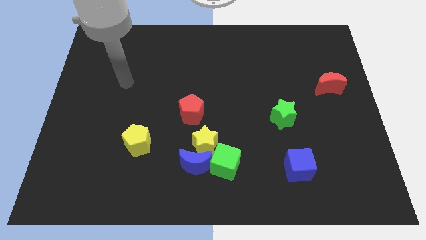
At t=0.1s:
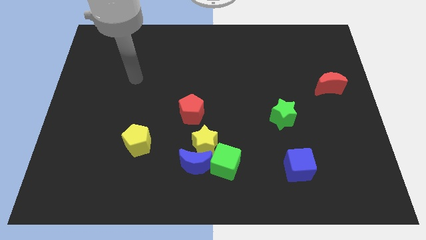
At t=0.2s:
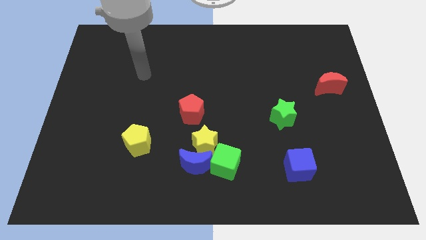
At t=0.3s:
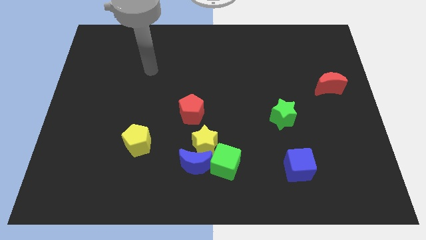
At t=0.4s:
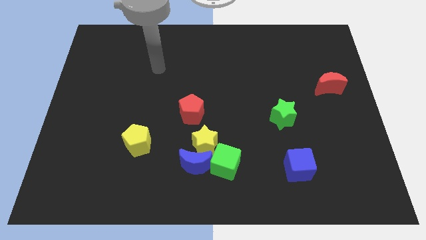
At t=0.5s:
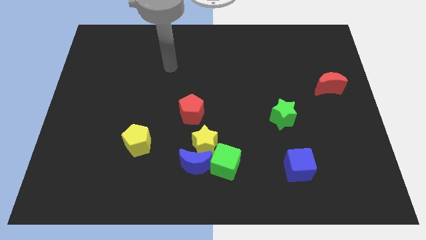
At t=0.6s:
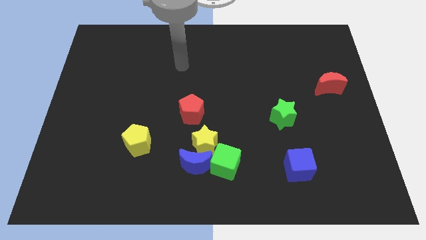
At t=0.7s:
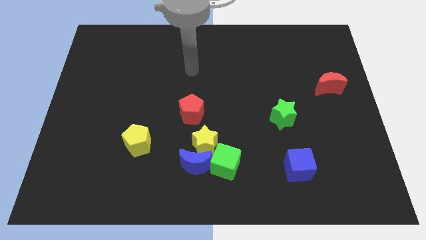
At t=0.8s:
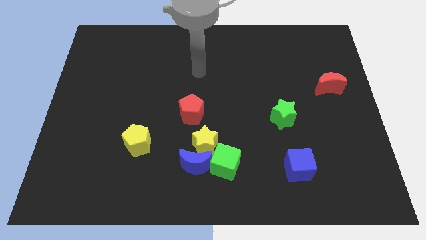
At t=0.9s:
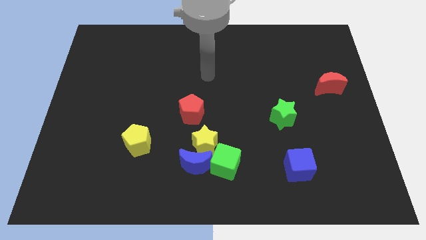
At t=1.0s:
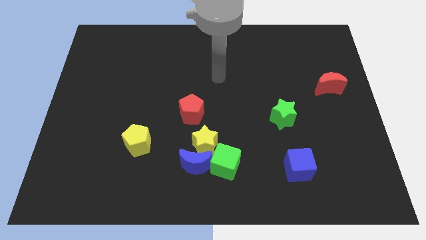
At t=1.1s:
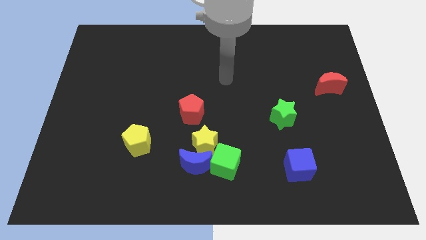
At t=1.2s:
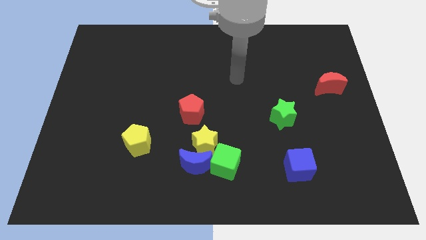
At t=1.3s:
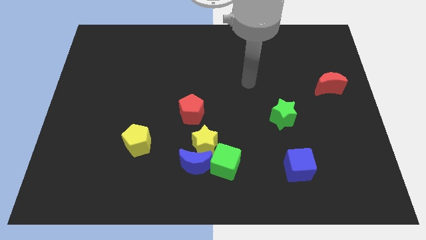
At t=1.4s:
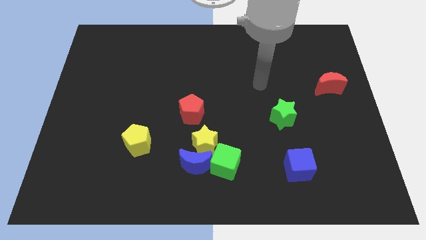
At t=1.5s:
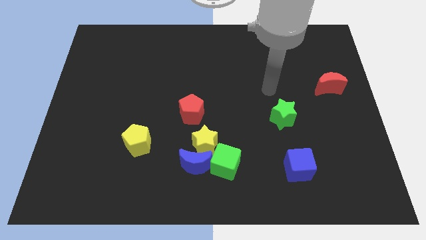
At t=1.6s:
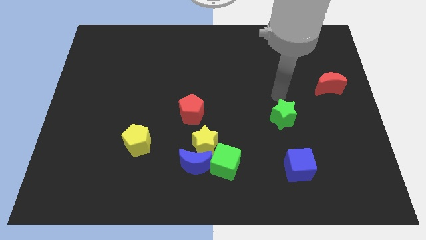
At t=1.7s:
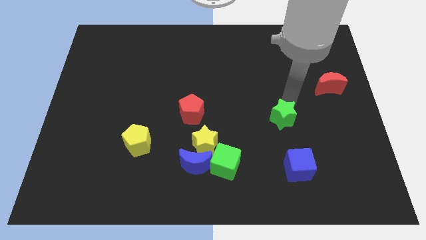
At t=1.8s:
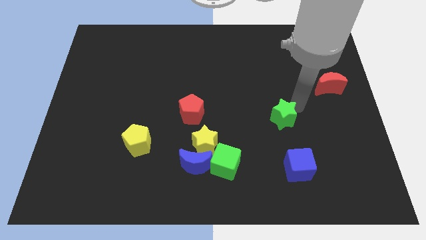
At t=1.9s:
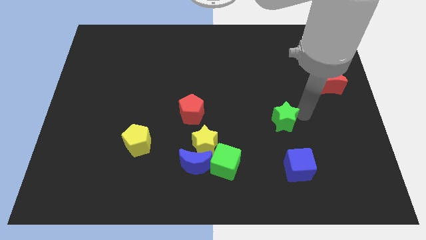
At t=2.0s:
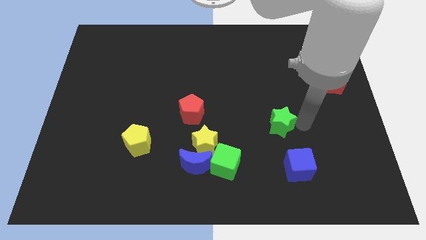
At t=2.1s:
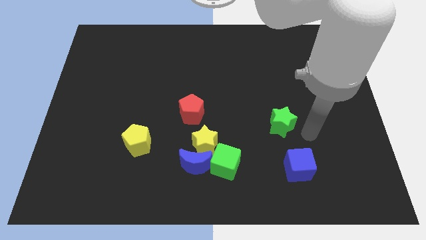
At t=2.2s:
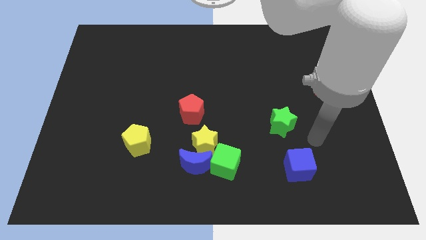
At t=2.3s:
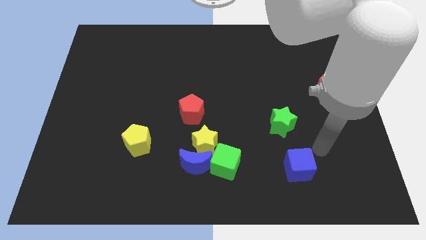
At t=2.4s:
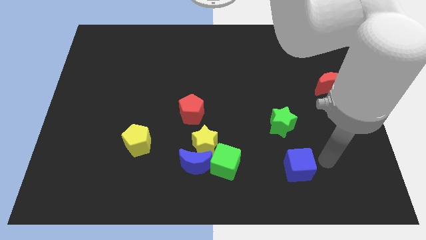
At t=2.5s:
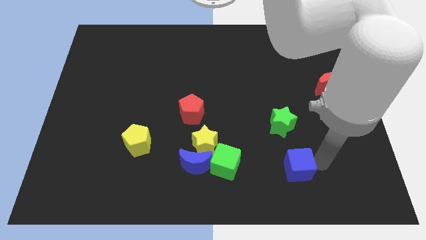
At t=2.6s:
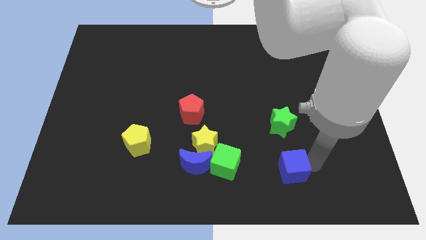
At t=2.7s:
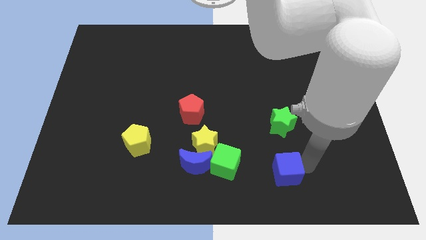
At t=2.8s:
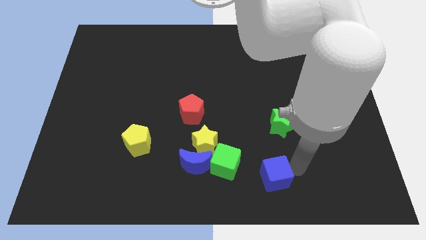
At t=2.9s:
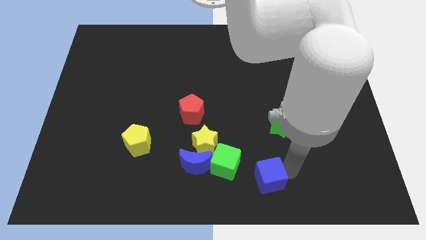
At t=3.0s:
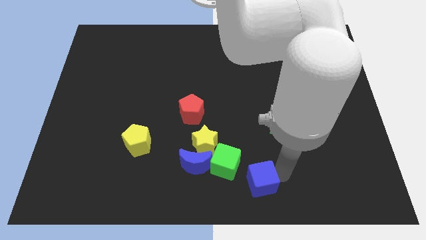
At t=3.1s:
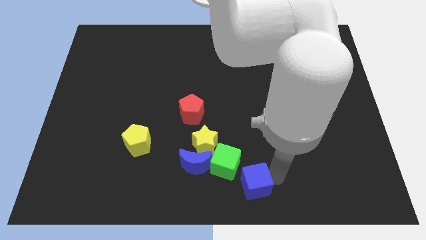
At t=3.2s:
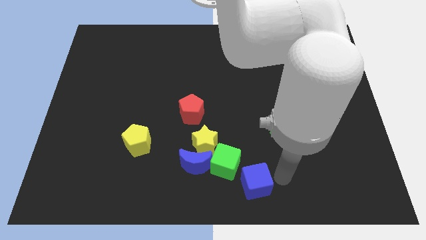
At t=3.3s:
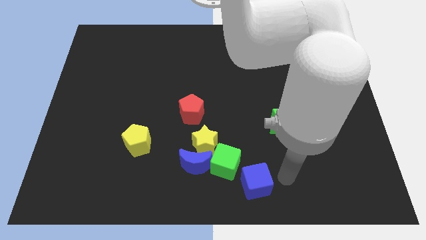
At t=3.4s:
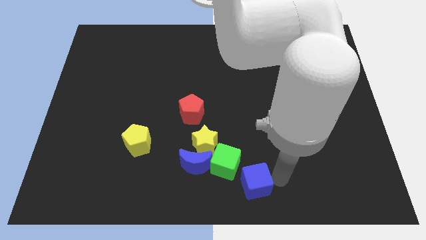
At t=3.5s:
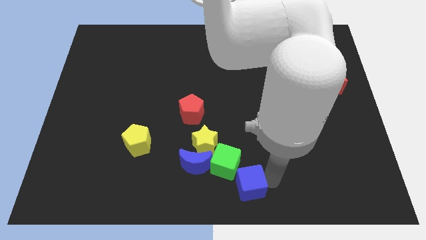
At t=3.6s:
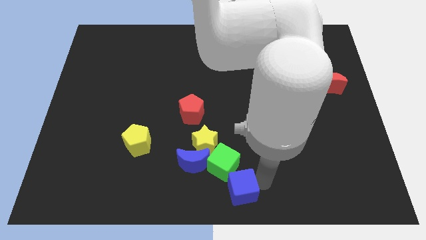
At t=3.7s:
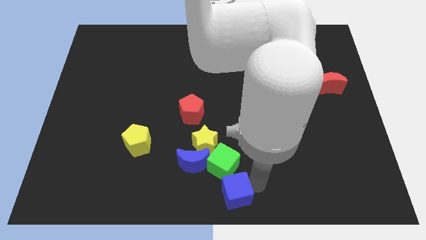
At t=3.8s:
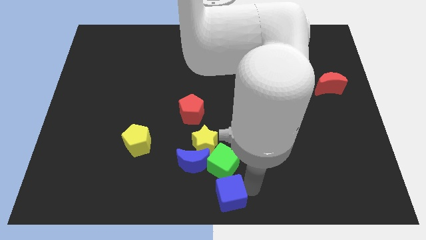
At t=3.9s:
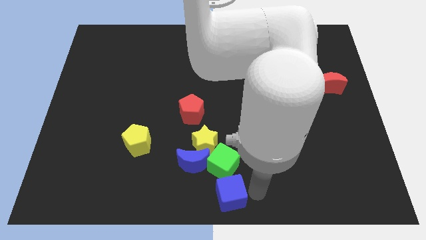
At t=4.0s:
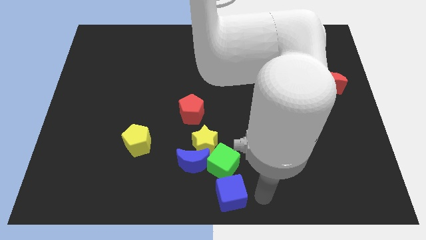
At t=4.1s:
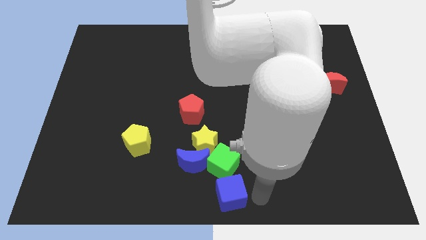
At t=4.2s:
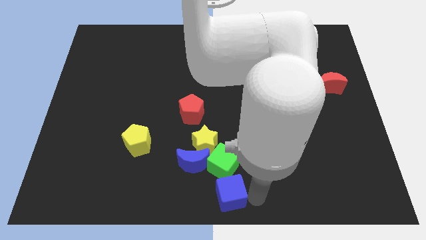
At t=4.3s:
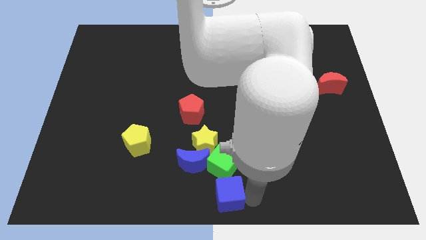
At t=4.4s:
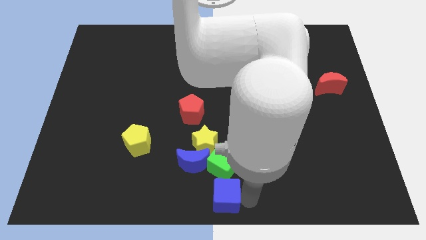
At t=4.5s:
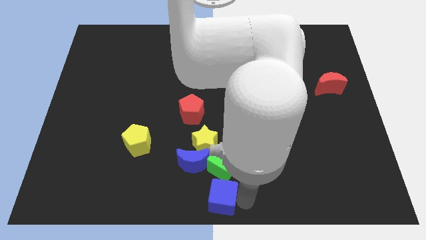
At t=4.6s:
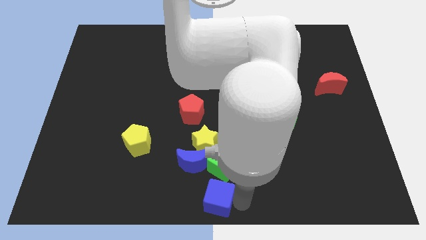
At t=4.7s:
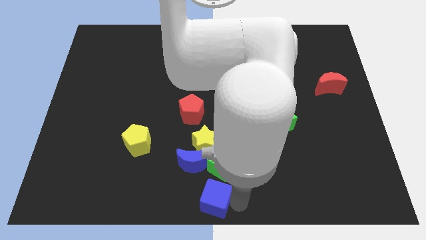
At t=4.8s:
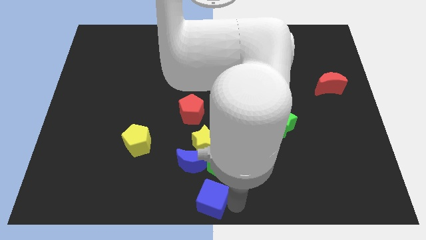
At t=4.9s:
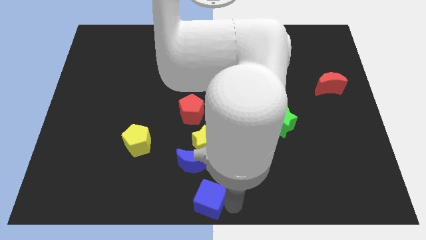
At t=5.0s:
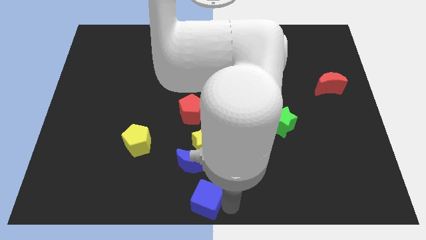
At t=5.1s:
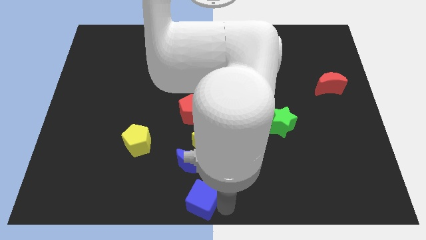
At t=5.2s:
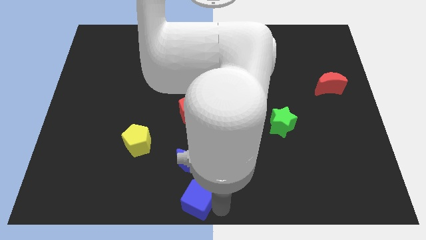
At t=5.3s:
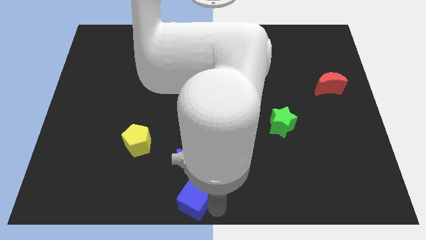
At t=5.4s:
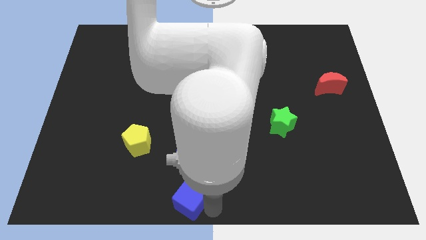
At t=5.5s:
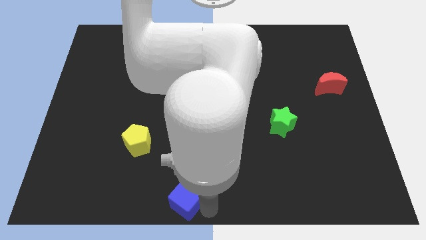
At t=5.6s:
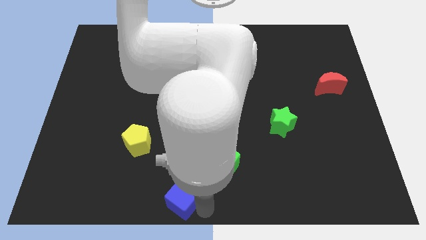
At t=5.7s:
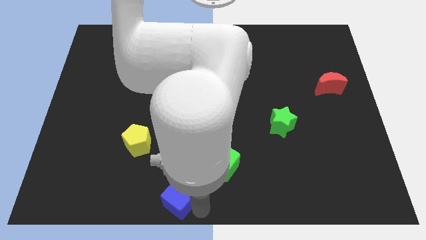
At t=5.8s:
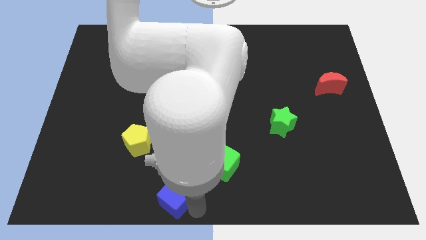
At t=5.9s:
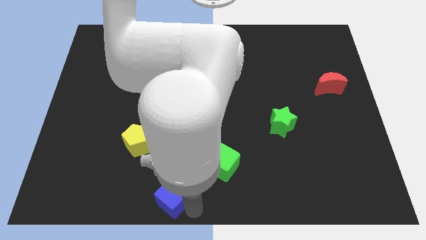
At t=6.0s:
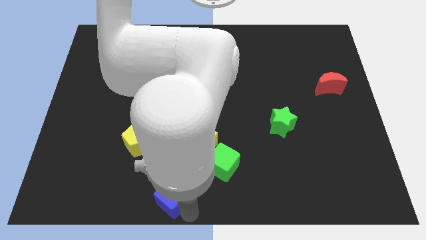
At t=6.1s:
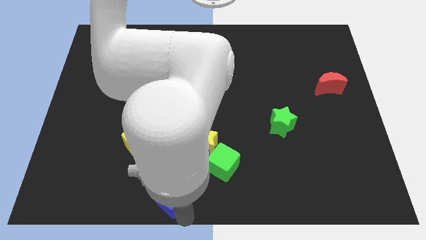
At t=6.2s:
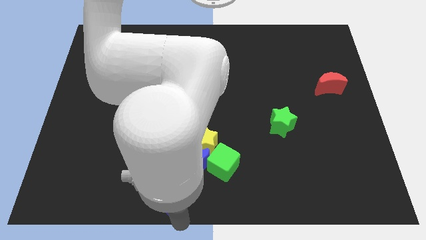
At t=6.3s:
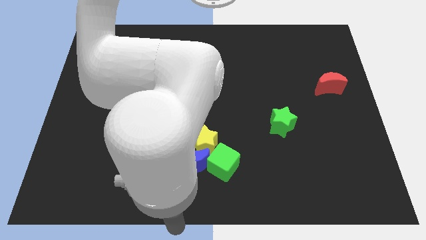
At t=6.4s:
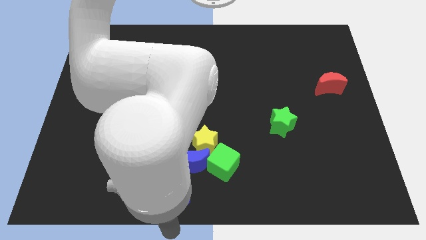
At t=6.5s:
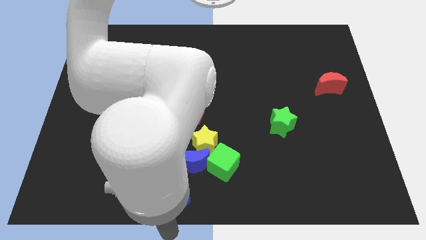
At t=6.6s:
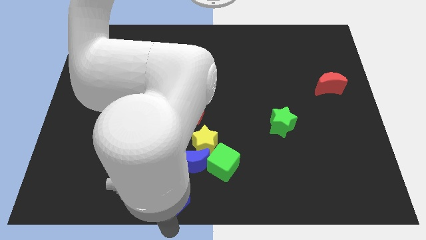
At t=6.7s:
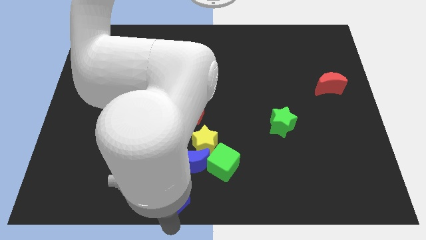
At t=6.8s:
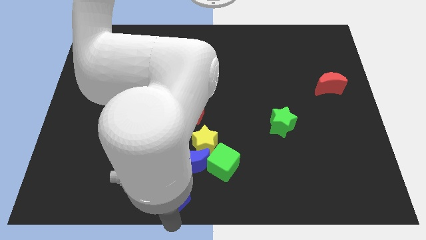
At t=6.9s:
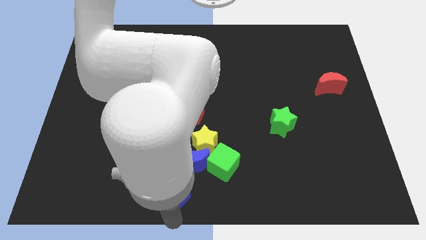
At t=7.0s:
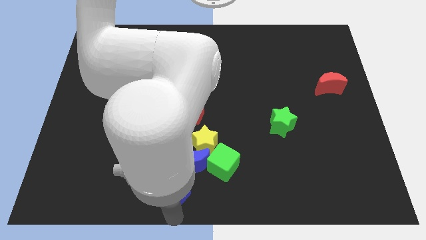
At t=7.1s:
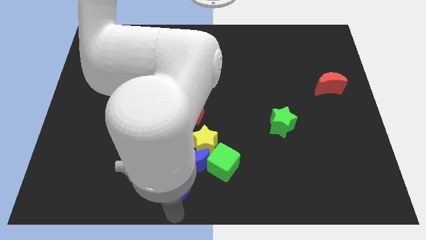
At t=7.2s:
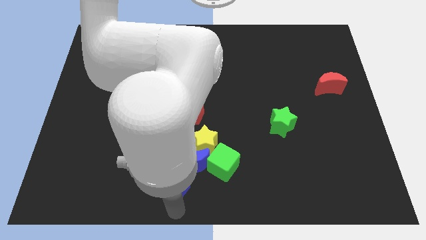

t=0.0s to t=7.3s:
move the blue cube to the bottom right of the yellow pentagon

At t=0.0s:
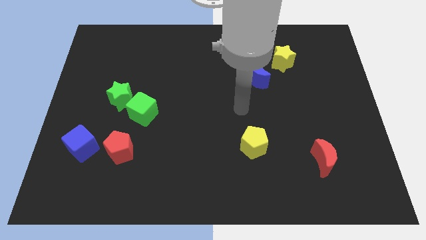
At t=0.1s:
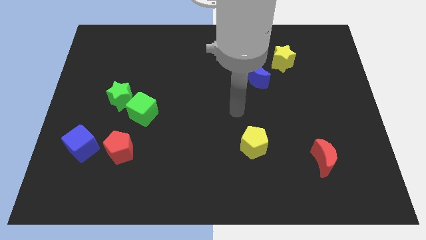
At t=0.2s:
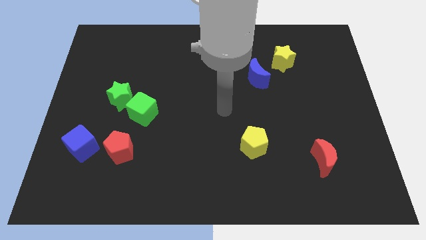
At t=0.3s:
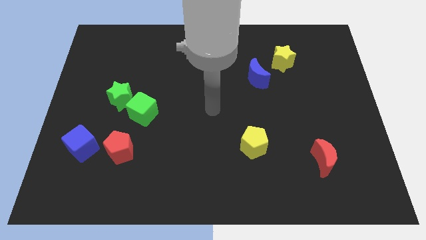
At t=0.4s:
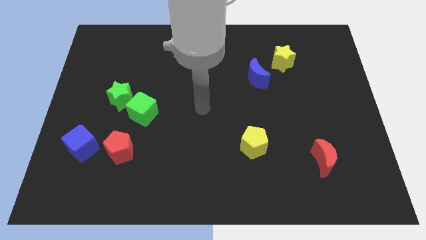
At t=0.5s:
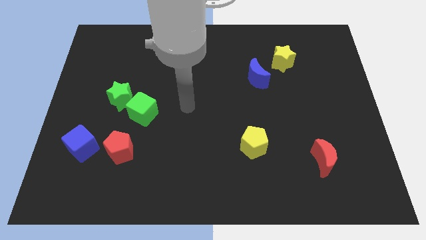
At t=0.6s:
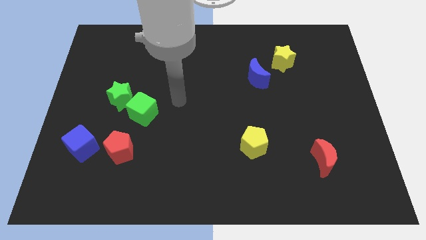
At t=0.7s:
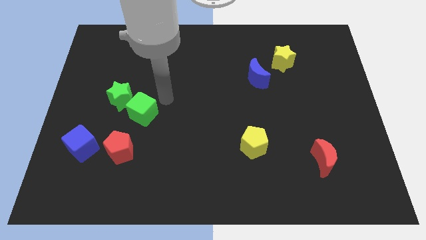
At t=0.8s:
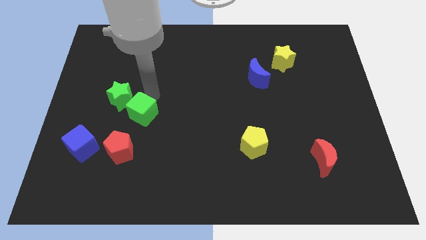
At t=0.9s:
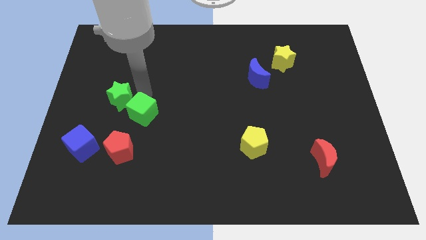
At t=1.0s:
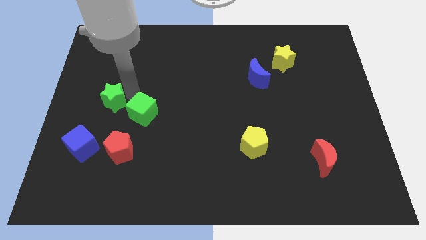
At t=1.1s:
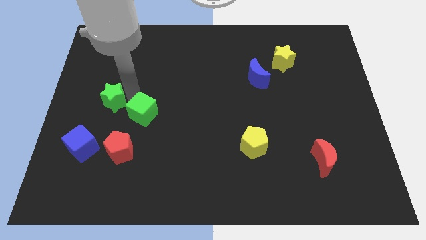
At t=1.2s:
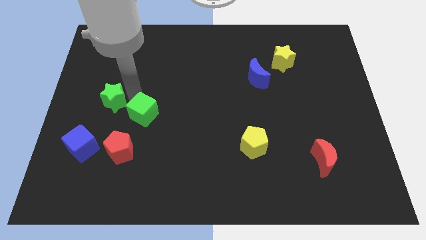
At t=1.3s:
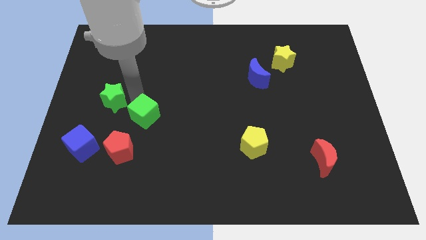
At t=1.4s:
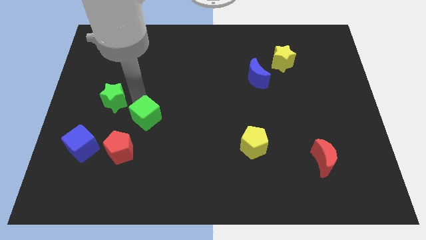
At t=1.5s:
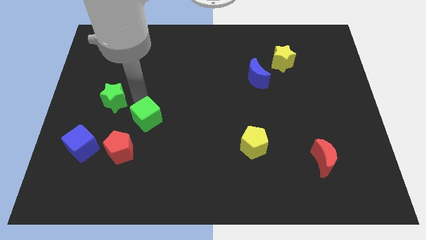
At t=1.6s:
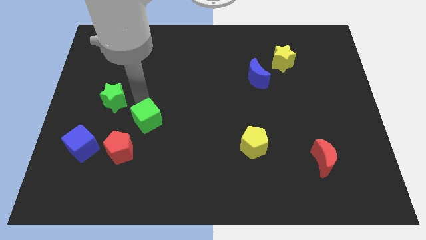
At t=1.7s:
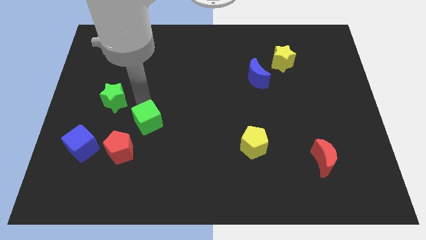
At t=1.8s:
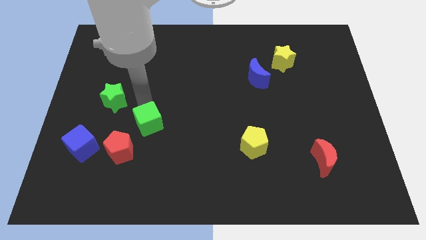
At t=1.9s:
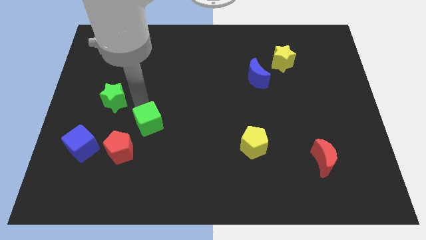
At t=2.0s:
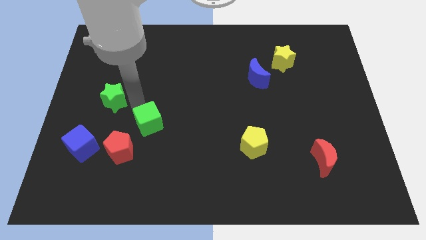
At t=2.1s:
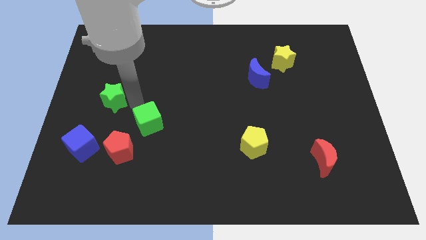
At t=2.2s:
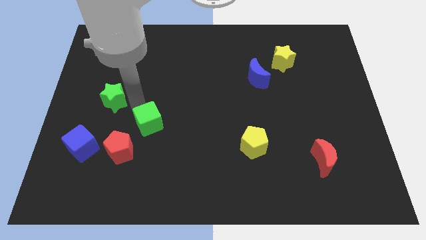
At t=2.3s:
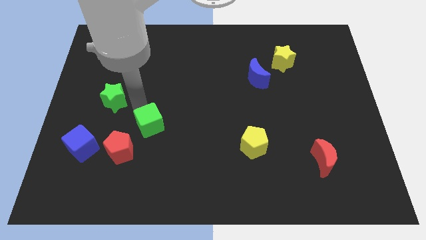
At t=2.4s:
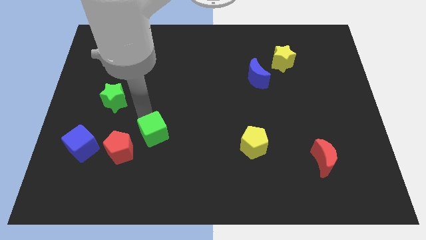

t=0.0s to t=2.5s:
move the green cube to the right of the red pentagon
